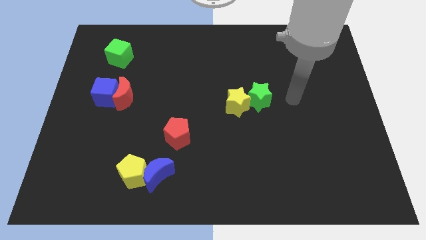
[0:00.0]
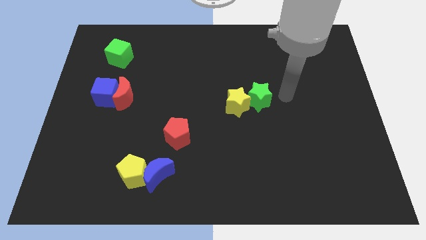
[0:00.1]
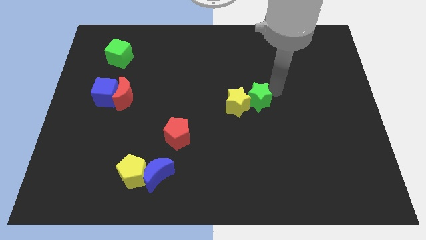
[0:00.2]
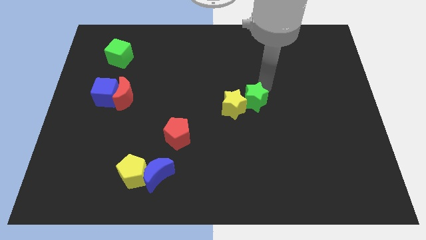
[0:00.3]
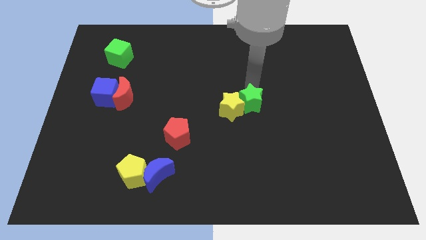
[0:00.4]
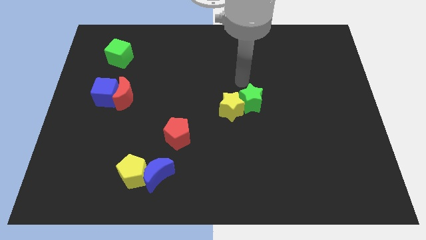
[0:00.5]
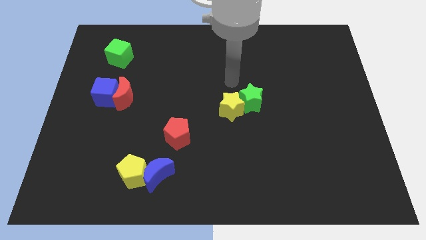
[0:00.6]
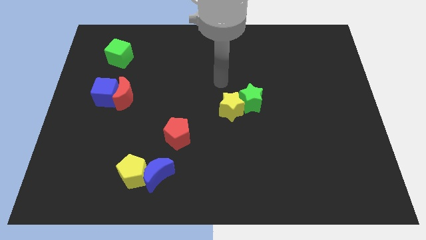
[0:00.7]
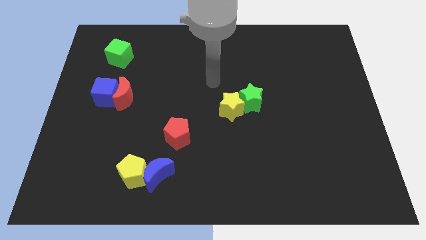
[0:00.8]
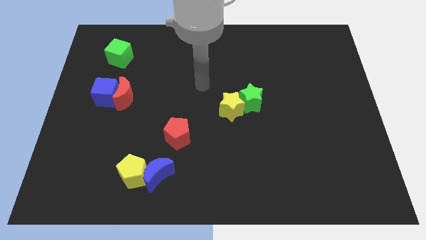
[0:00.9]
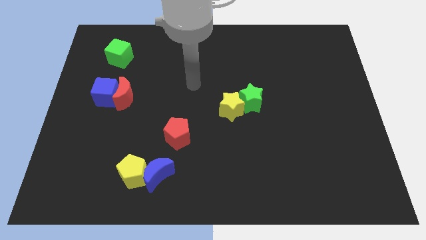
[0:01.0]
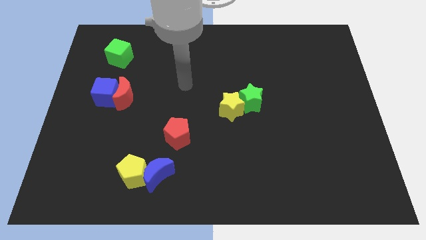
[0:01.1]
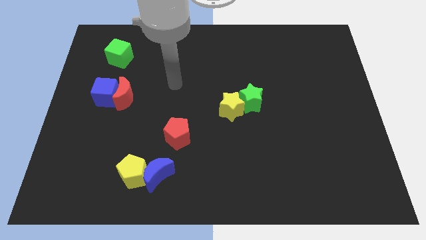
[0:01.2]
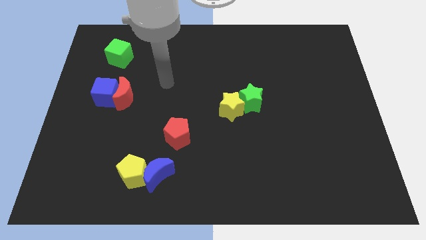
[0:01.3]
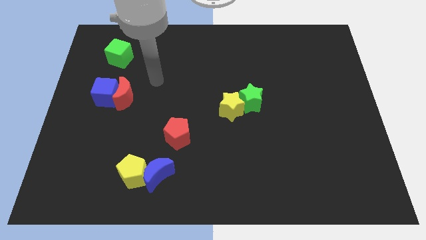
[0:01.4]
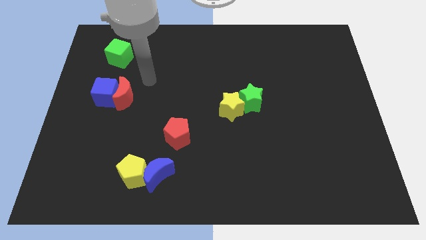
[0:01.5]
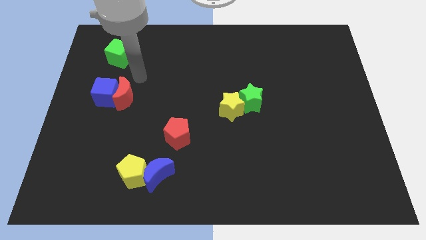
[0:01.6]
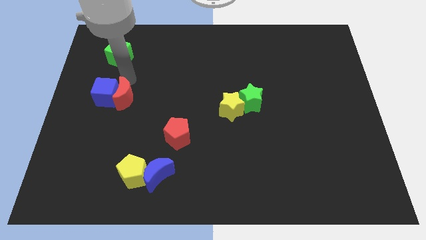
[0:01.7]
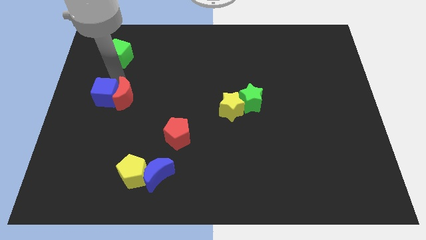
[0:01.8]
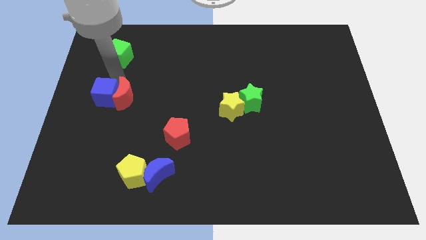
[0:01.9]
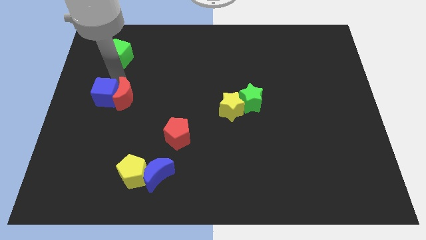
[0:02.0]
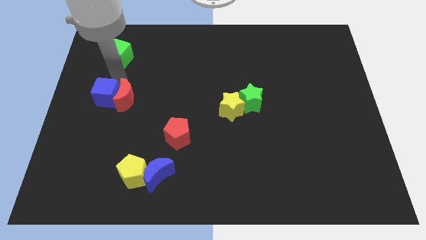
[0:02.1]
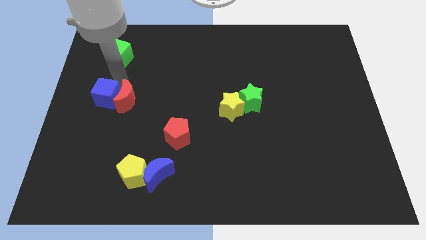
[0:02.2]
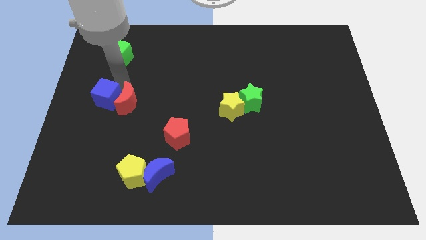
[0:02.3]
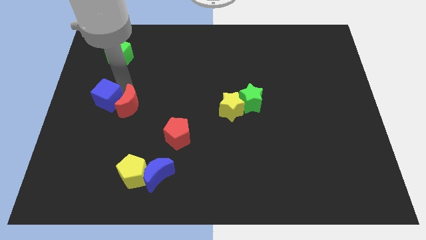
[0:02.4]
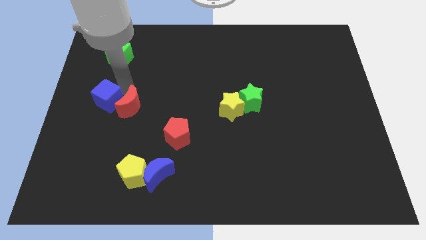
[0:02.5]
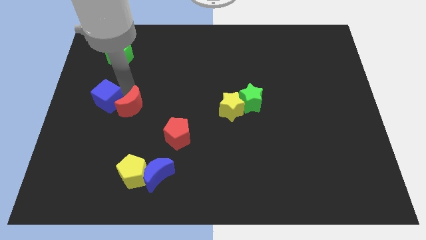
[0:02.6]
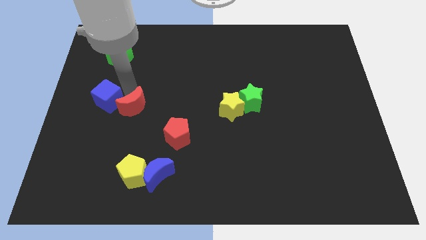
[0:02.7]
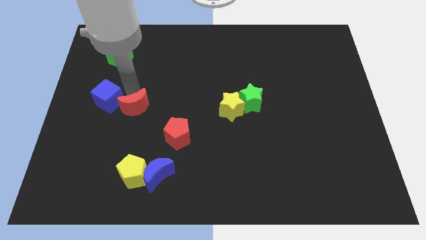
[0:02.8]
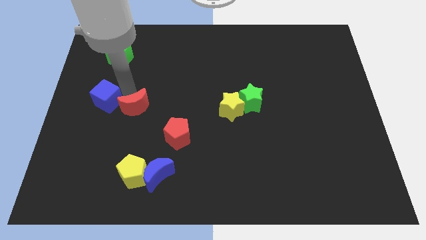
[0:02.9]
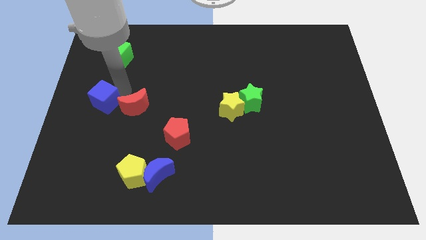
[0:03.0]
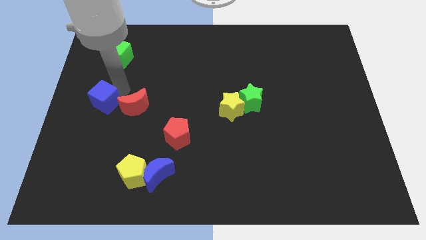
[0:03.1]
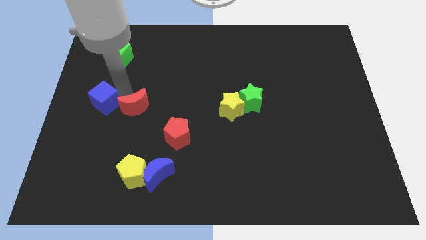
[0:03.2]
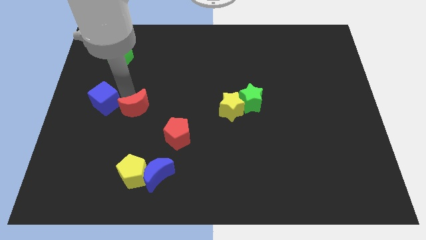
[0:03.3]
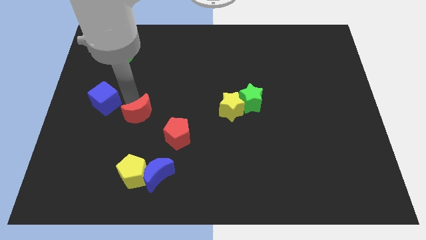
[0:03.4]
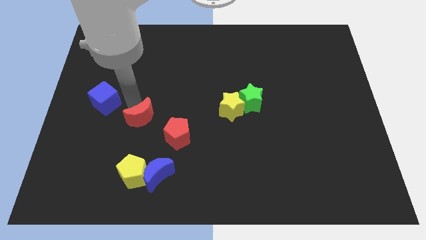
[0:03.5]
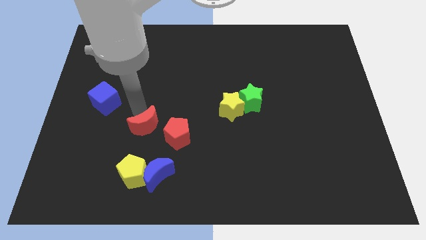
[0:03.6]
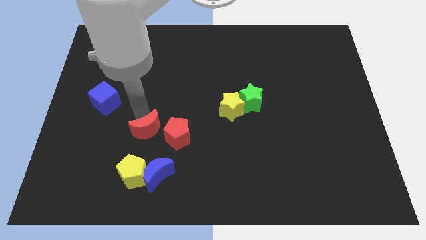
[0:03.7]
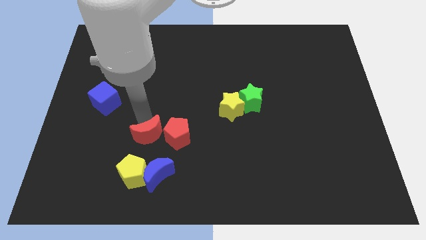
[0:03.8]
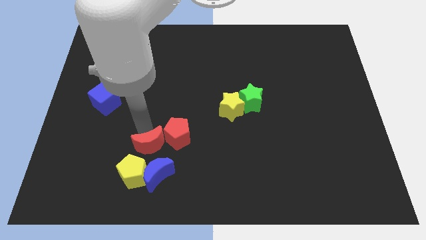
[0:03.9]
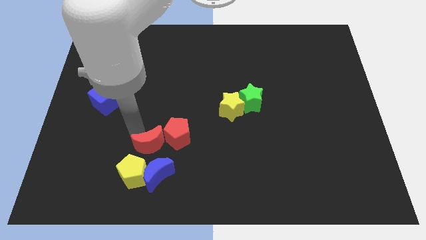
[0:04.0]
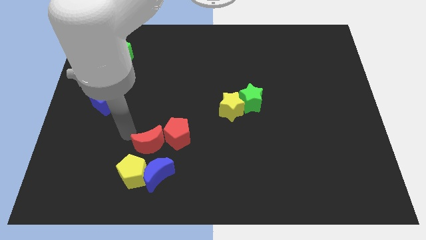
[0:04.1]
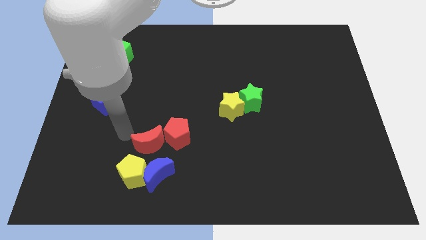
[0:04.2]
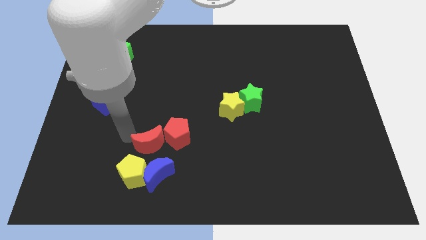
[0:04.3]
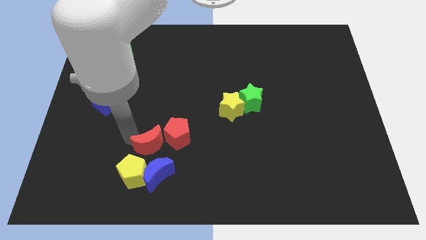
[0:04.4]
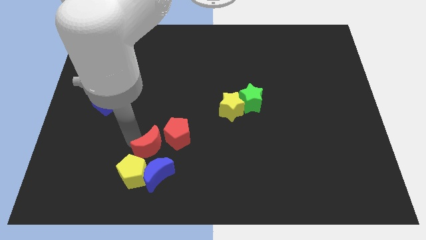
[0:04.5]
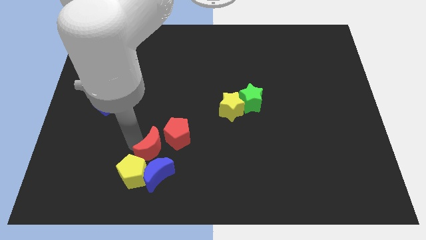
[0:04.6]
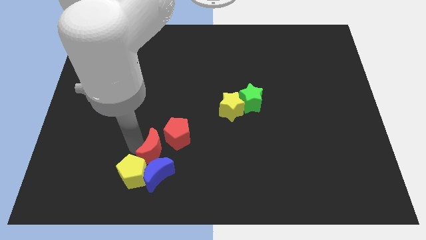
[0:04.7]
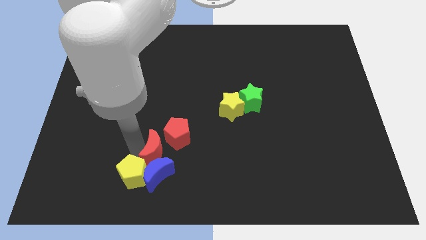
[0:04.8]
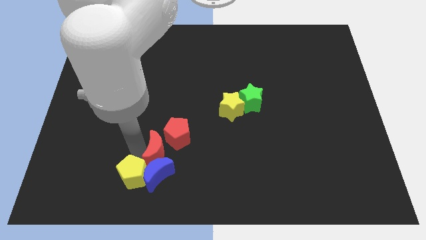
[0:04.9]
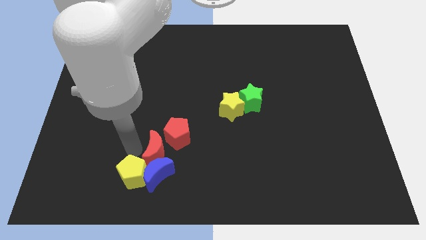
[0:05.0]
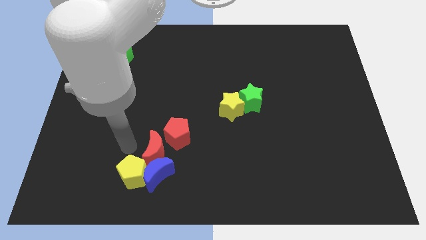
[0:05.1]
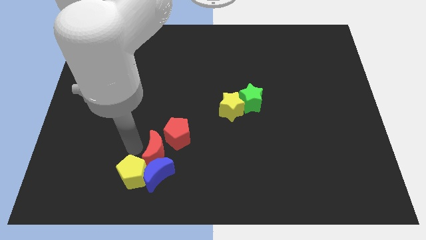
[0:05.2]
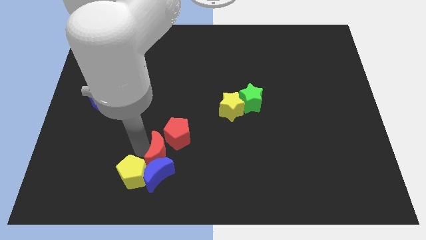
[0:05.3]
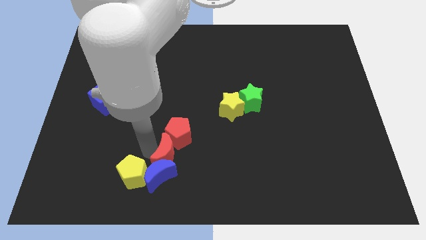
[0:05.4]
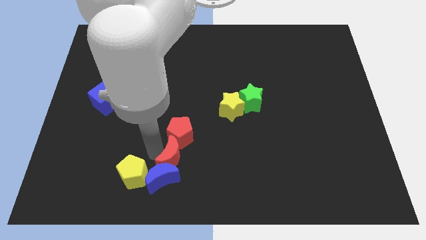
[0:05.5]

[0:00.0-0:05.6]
push the red moon diagonally downwards and right

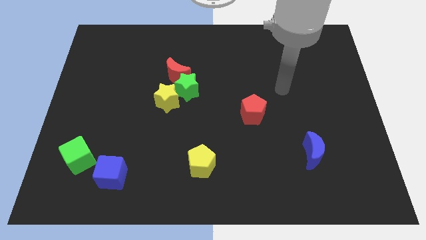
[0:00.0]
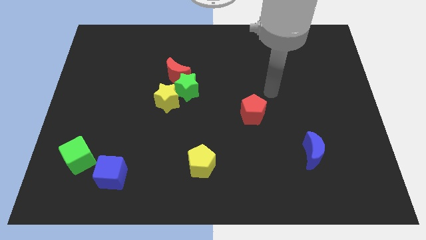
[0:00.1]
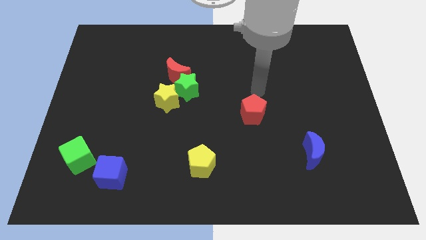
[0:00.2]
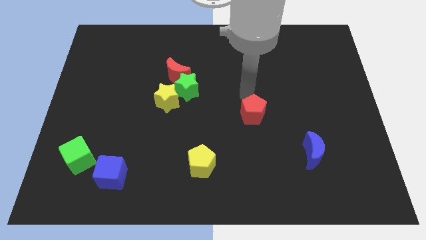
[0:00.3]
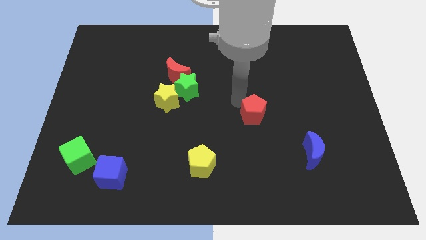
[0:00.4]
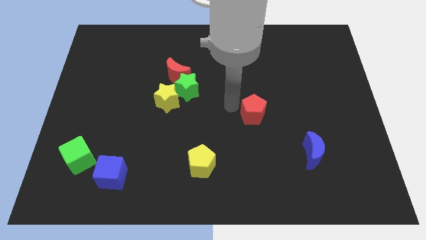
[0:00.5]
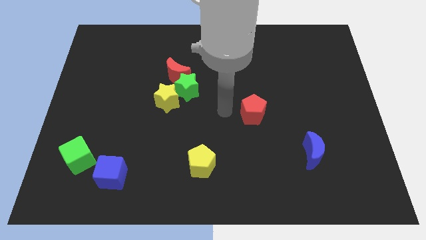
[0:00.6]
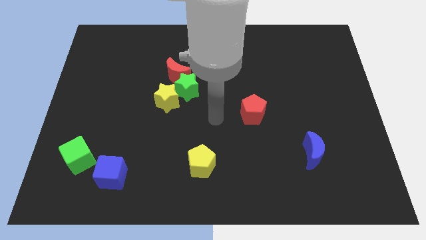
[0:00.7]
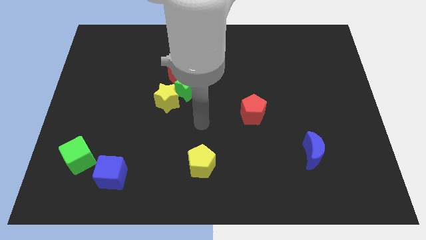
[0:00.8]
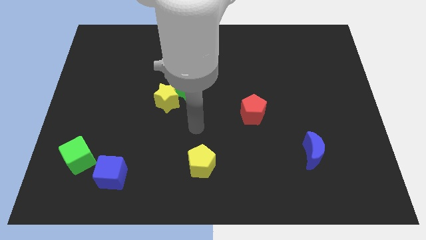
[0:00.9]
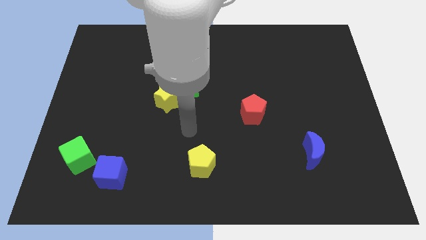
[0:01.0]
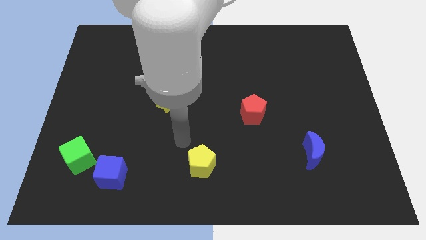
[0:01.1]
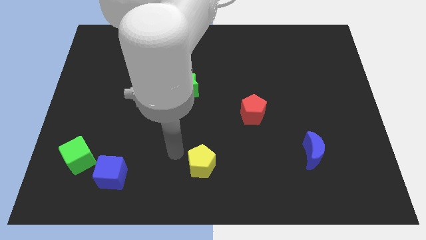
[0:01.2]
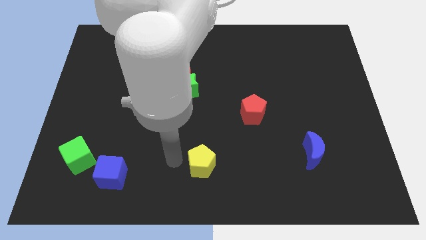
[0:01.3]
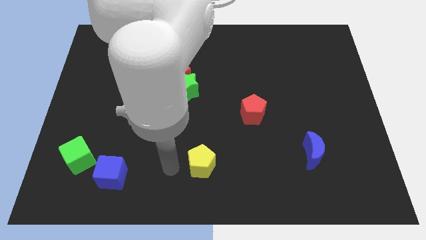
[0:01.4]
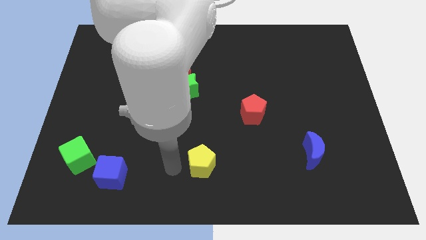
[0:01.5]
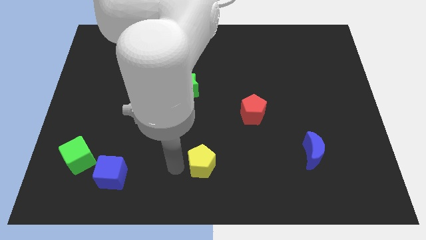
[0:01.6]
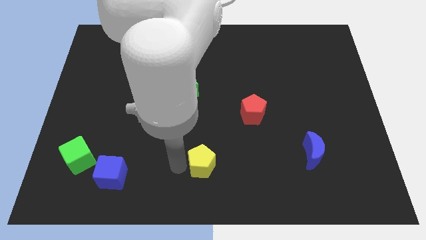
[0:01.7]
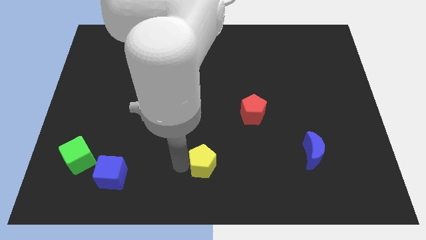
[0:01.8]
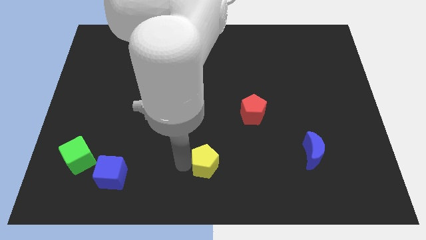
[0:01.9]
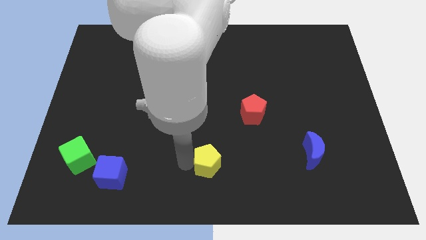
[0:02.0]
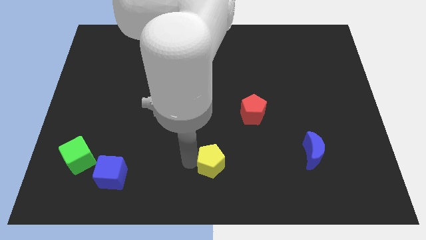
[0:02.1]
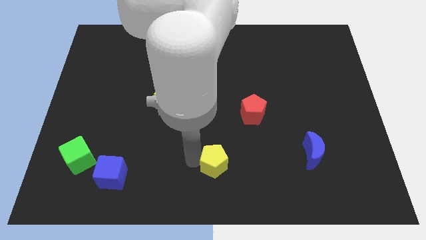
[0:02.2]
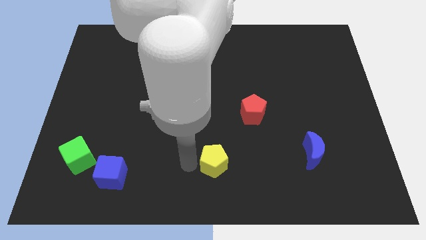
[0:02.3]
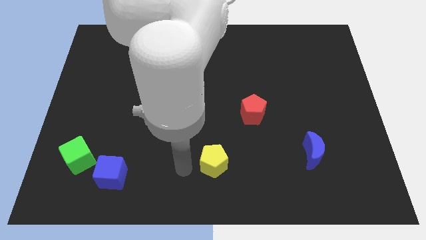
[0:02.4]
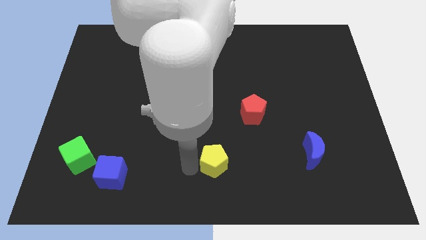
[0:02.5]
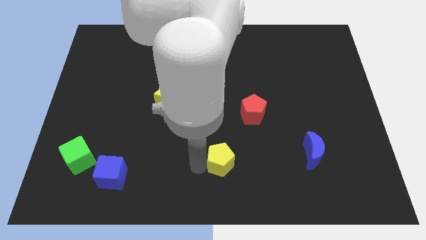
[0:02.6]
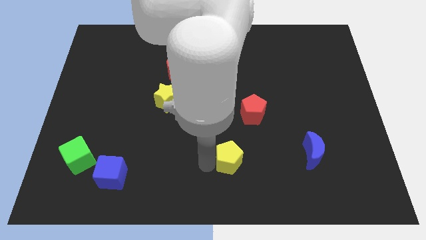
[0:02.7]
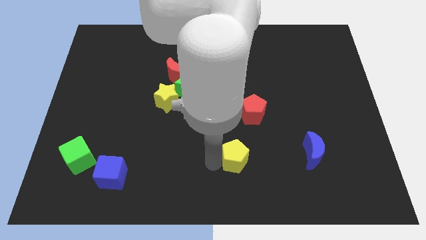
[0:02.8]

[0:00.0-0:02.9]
slightly slide the yellow pentagon to the right
